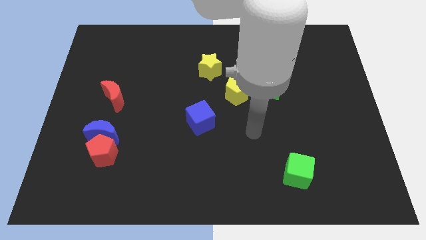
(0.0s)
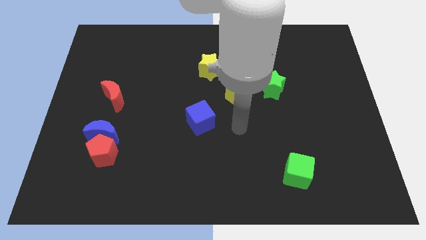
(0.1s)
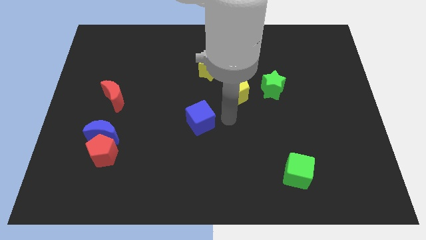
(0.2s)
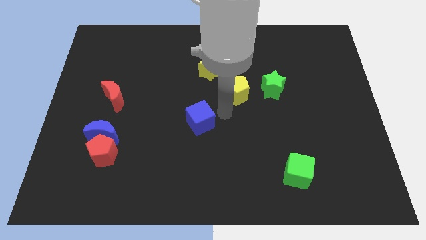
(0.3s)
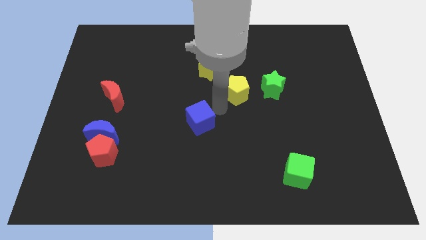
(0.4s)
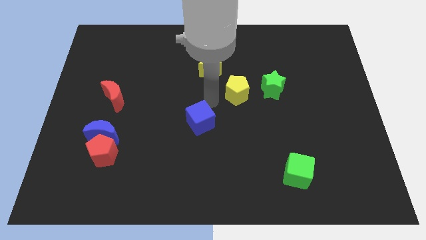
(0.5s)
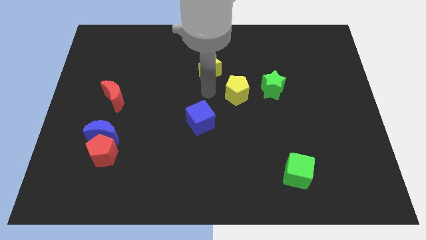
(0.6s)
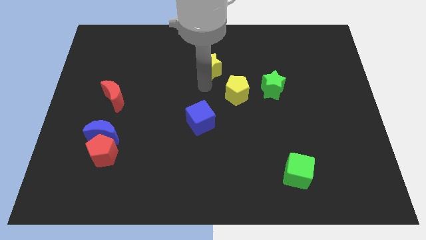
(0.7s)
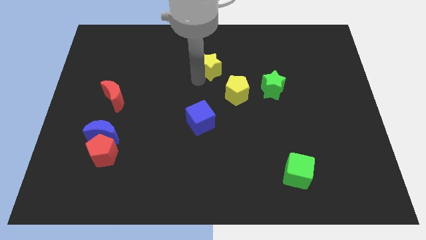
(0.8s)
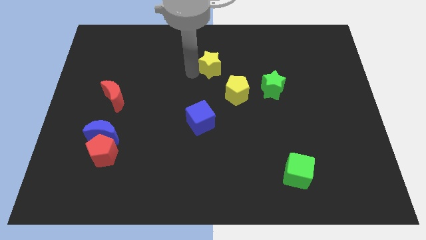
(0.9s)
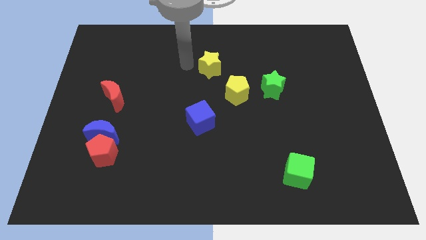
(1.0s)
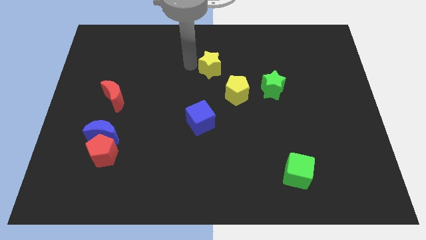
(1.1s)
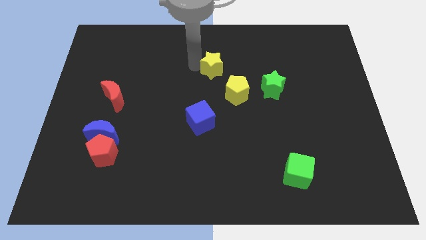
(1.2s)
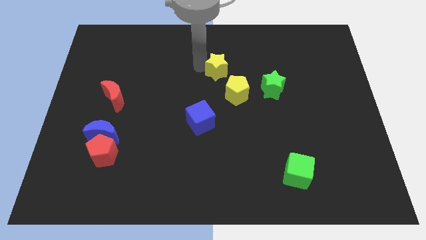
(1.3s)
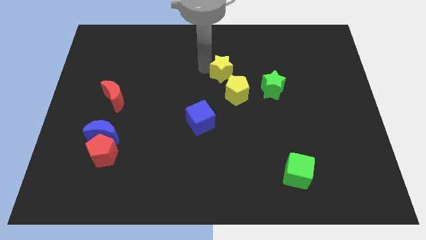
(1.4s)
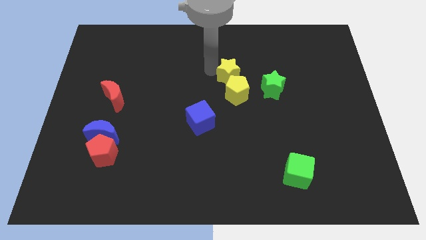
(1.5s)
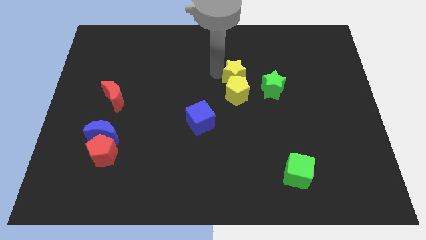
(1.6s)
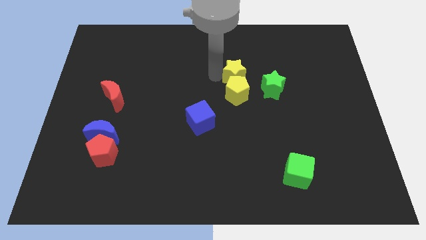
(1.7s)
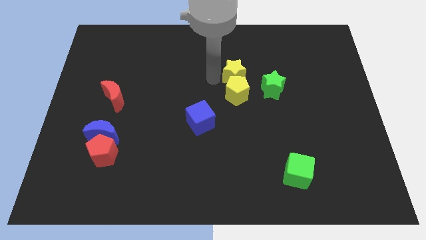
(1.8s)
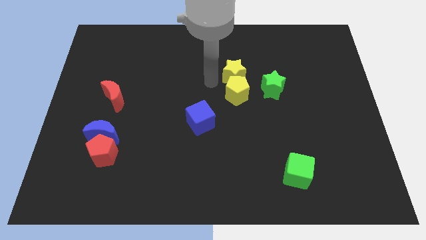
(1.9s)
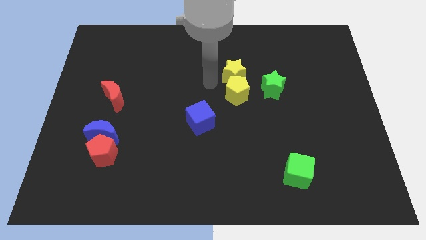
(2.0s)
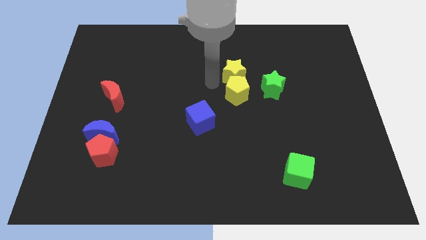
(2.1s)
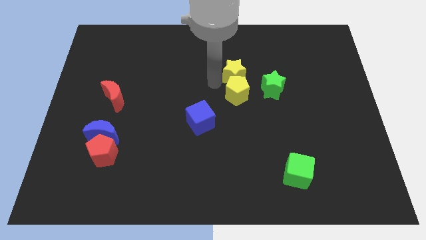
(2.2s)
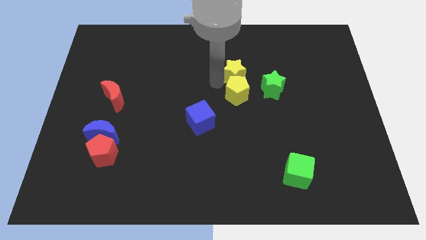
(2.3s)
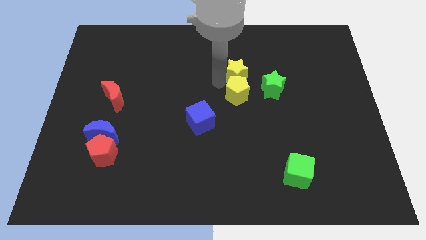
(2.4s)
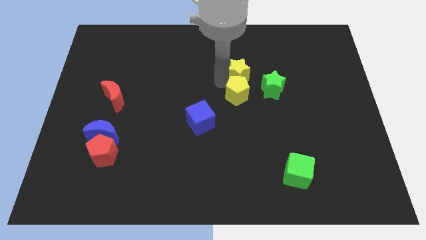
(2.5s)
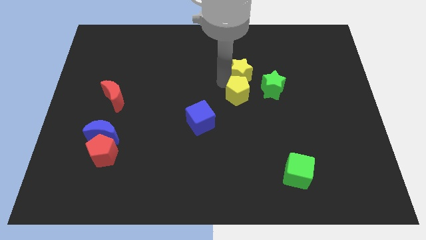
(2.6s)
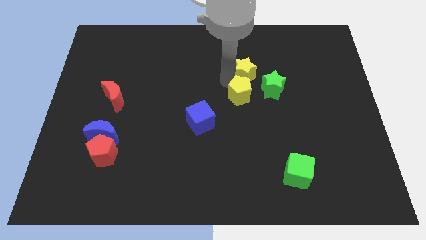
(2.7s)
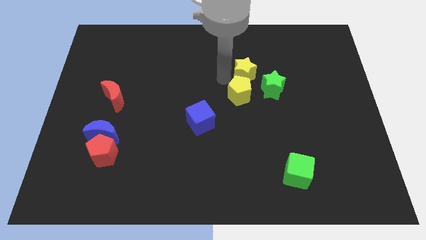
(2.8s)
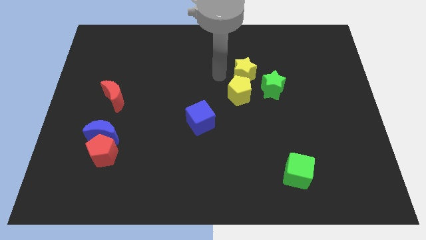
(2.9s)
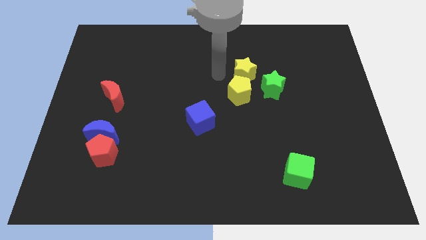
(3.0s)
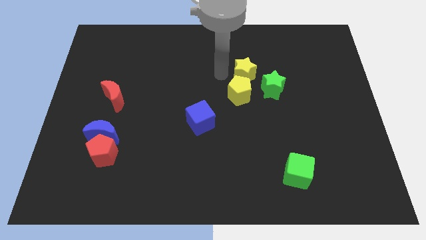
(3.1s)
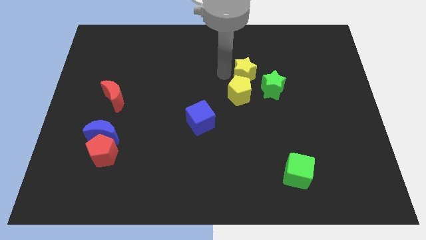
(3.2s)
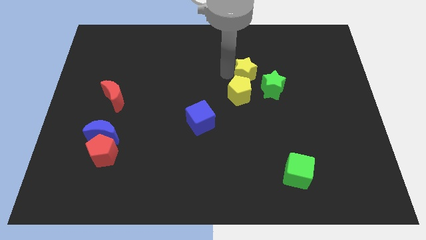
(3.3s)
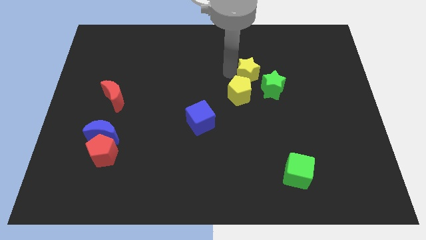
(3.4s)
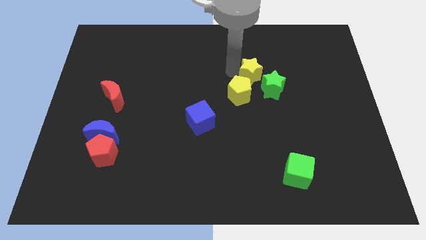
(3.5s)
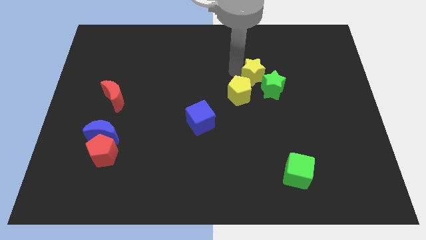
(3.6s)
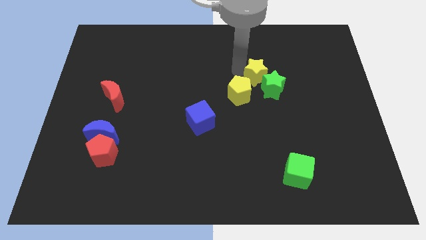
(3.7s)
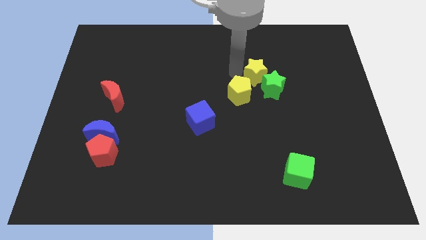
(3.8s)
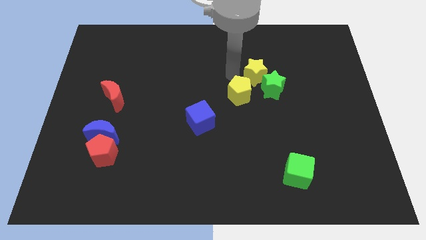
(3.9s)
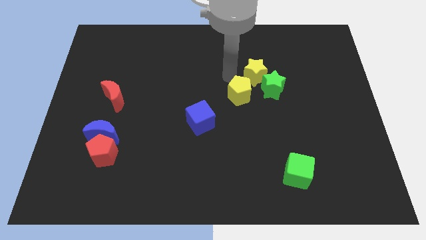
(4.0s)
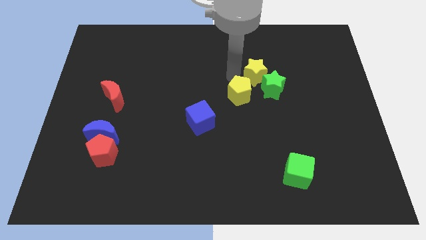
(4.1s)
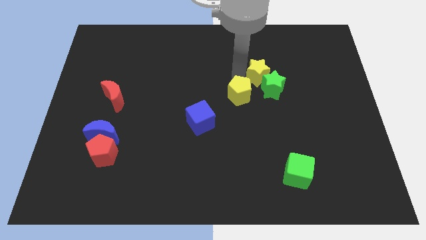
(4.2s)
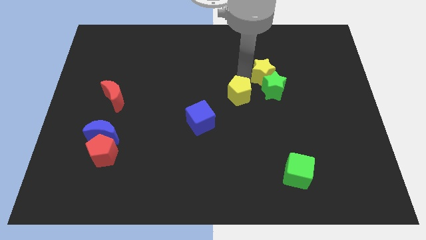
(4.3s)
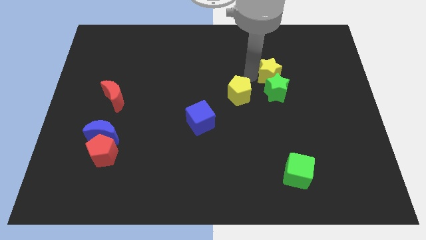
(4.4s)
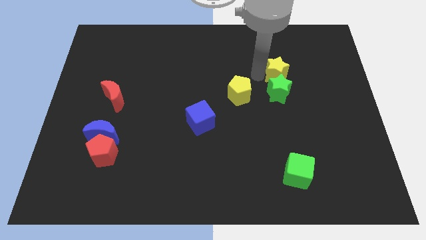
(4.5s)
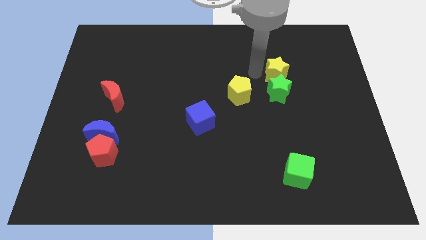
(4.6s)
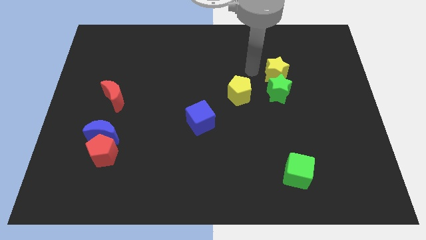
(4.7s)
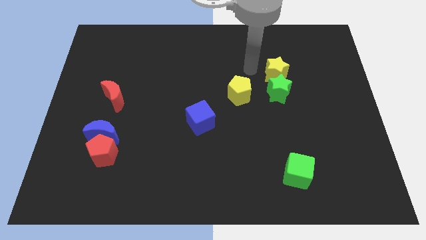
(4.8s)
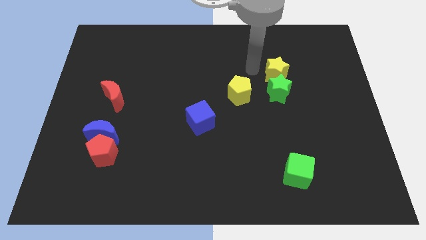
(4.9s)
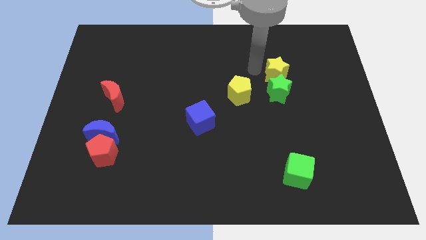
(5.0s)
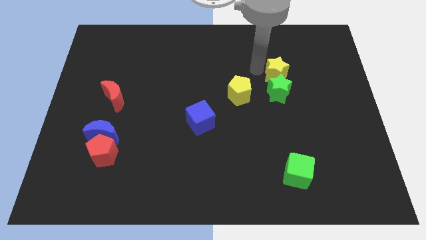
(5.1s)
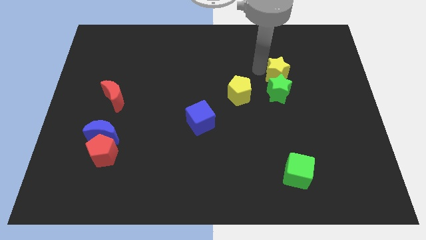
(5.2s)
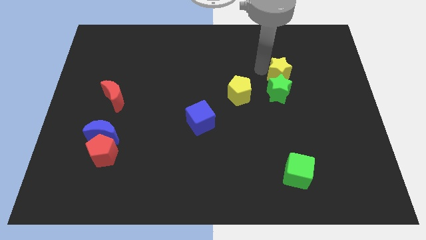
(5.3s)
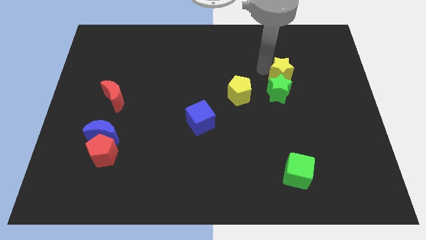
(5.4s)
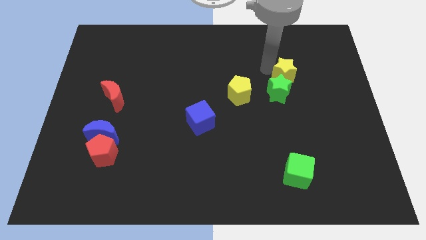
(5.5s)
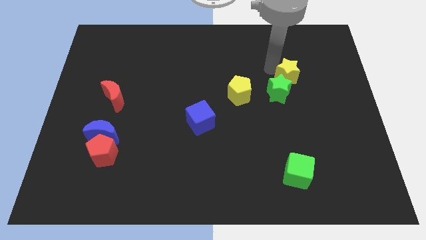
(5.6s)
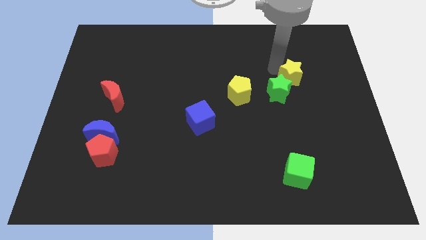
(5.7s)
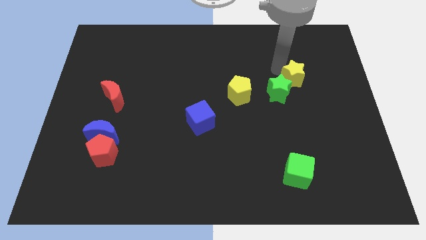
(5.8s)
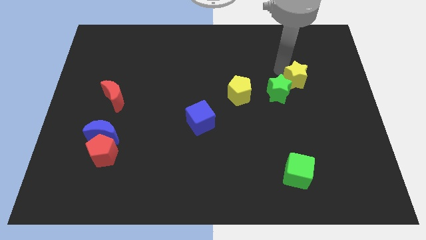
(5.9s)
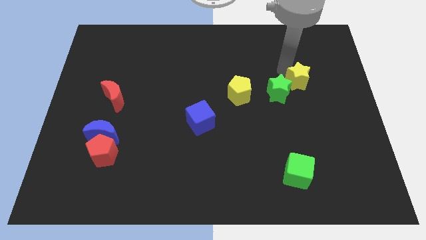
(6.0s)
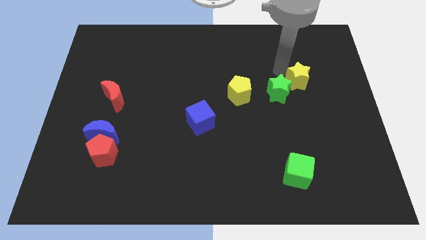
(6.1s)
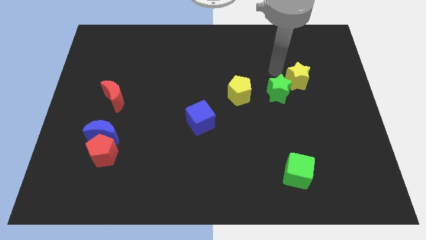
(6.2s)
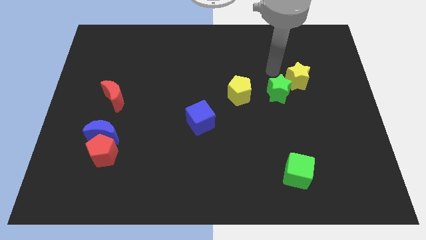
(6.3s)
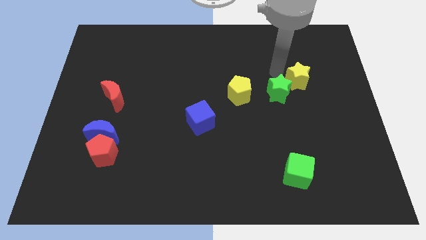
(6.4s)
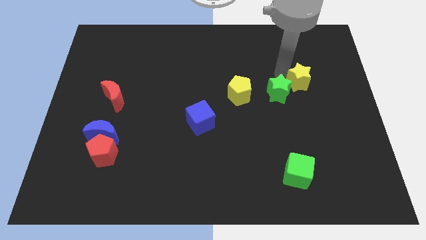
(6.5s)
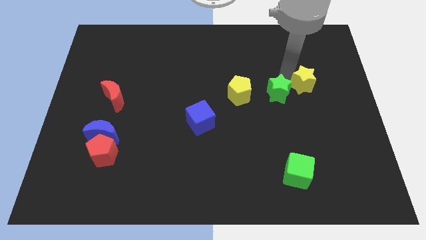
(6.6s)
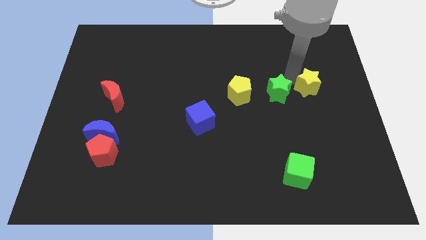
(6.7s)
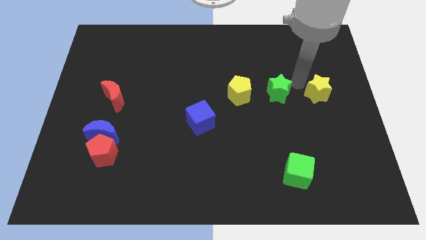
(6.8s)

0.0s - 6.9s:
move the yellow star to the center right
